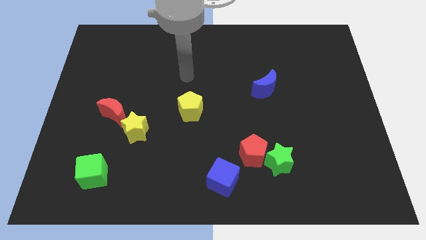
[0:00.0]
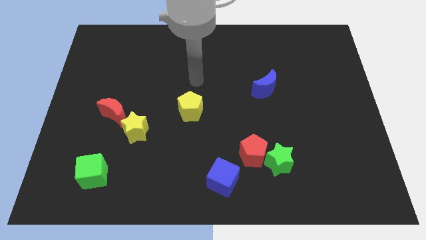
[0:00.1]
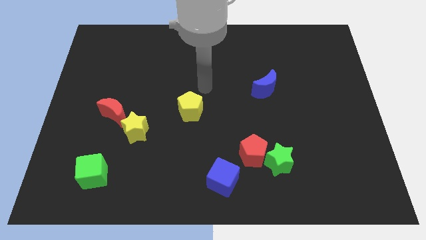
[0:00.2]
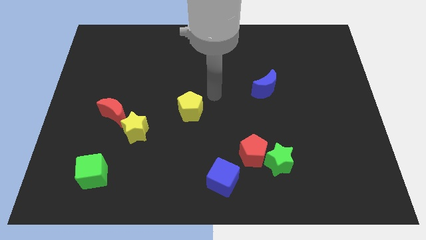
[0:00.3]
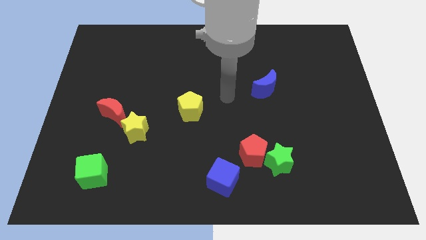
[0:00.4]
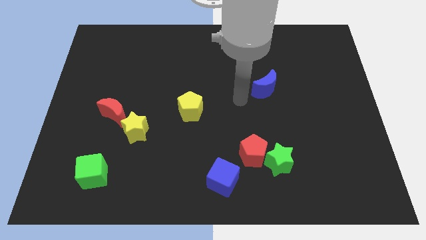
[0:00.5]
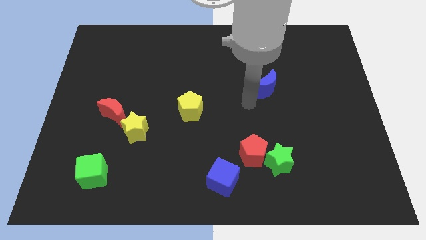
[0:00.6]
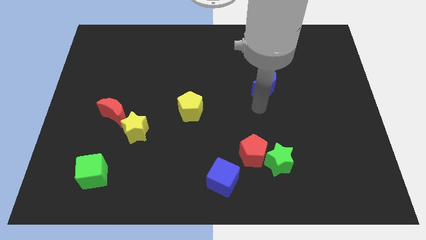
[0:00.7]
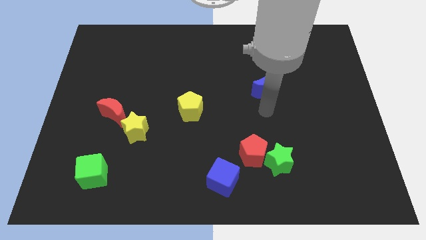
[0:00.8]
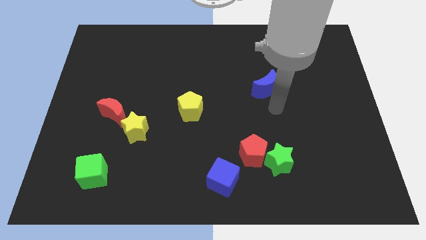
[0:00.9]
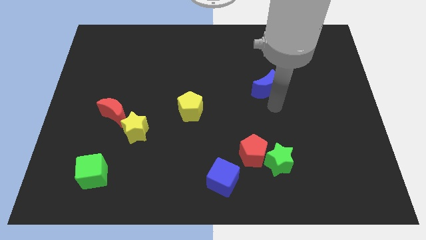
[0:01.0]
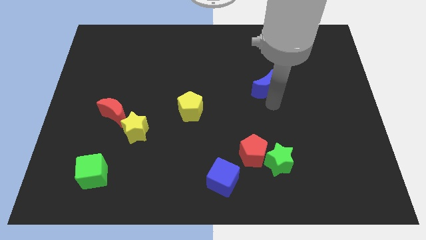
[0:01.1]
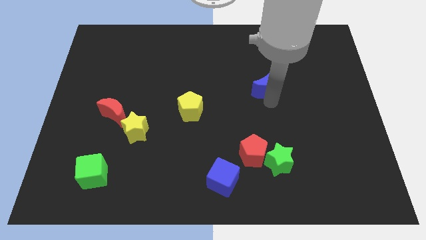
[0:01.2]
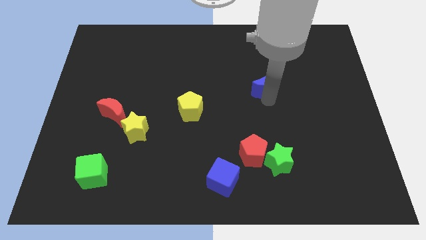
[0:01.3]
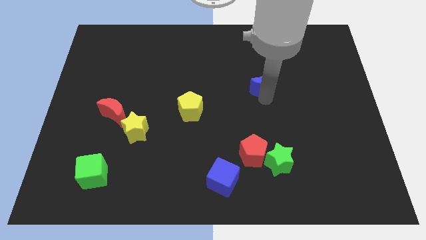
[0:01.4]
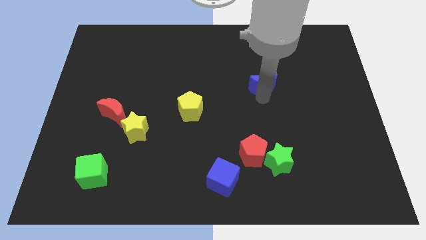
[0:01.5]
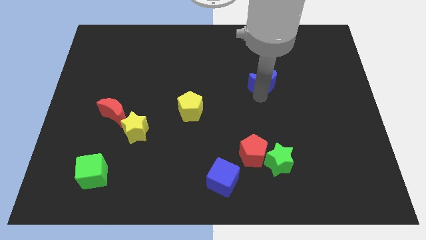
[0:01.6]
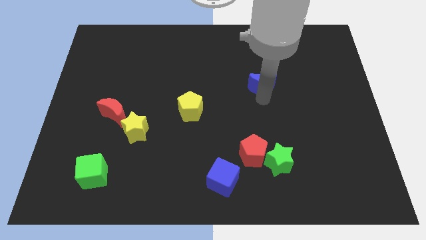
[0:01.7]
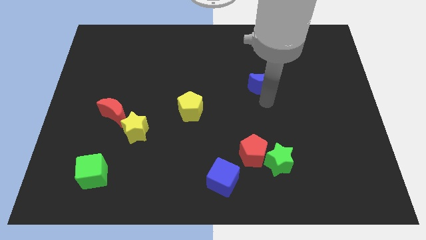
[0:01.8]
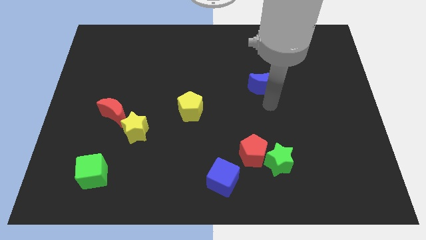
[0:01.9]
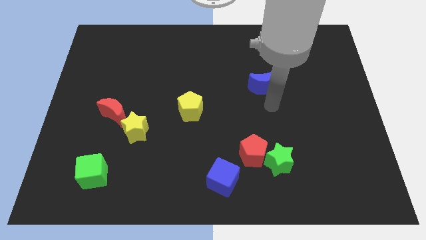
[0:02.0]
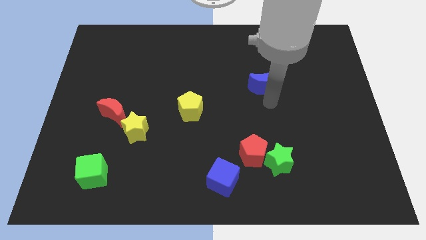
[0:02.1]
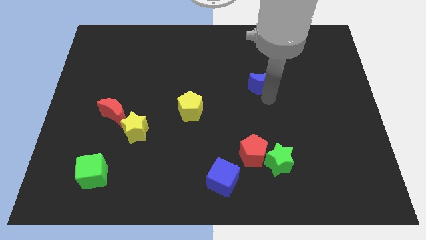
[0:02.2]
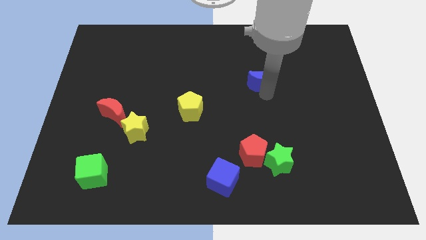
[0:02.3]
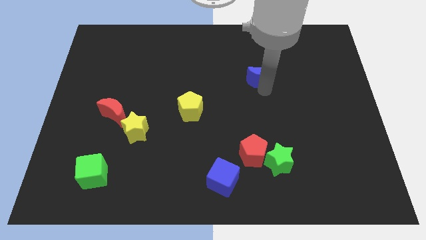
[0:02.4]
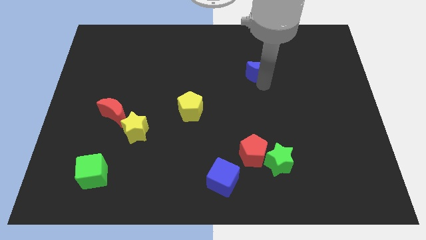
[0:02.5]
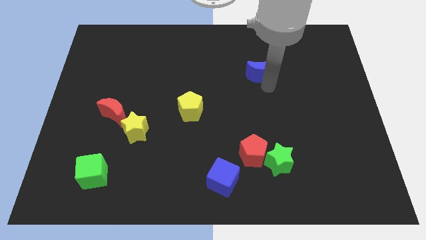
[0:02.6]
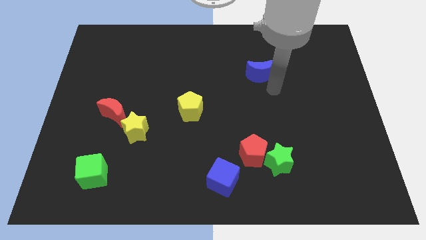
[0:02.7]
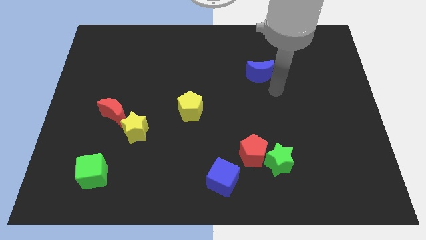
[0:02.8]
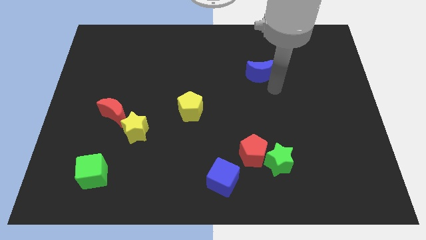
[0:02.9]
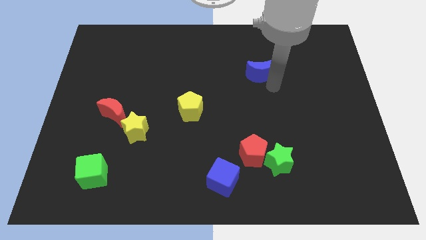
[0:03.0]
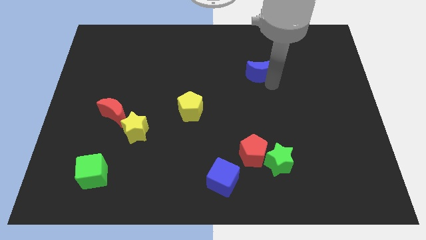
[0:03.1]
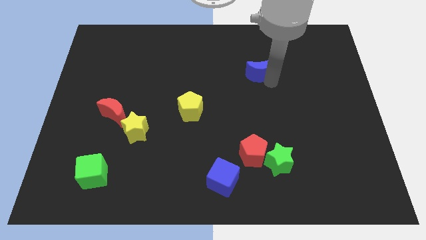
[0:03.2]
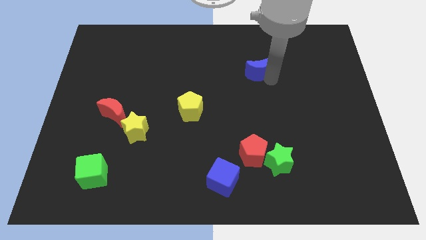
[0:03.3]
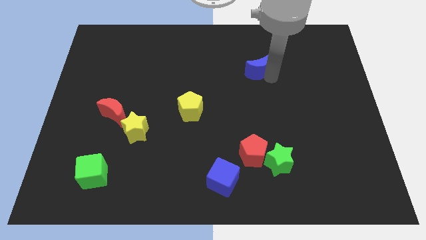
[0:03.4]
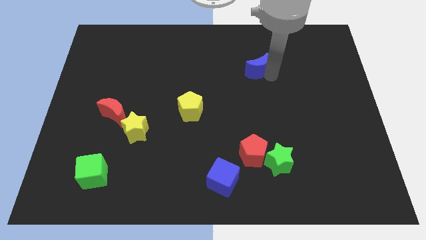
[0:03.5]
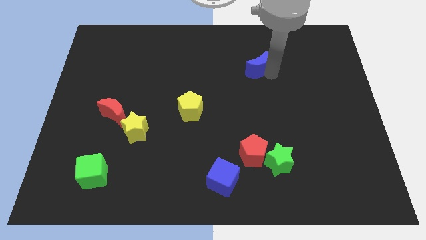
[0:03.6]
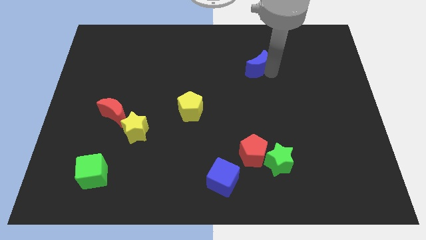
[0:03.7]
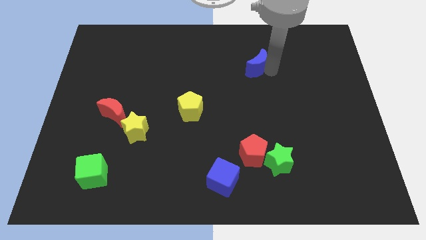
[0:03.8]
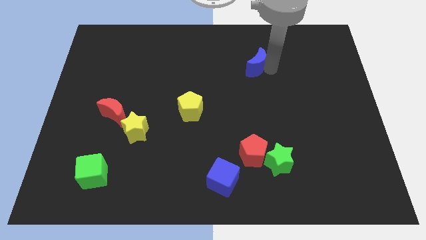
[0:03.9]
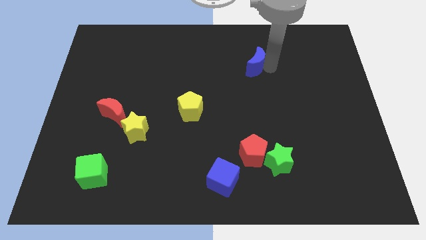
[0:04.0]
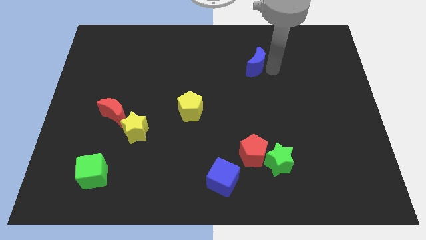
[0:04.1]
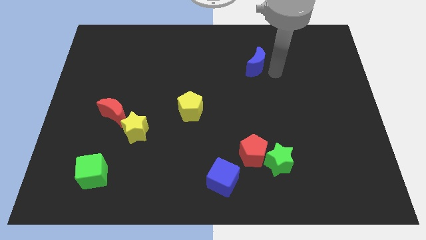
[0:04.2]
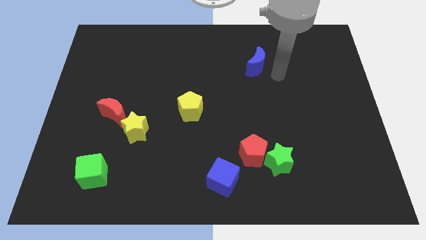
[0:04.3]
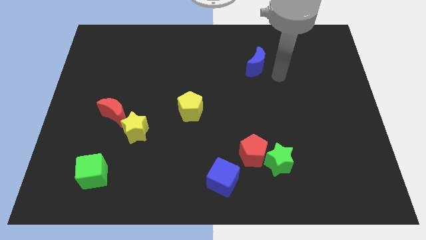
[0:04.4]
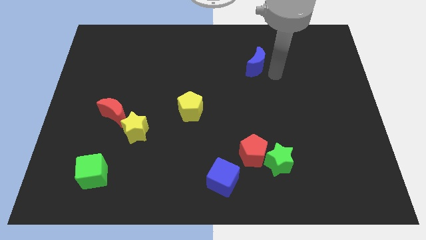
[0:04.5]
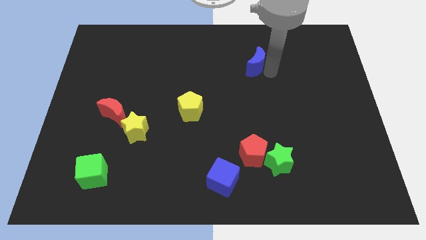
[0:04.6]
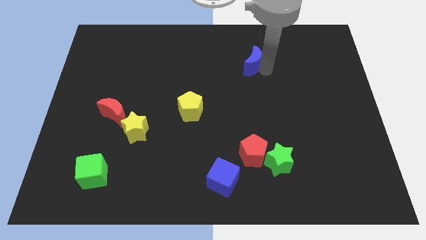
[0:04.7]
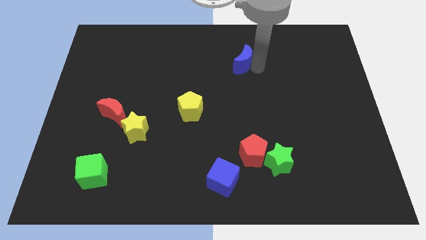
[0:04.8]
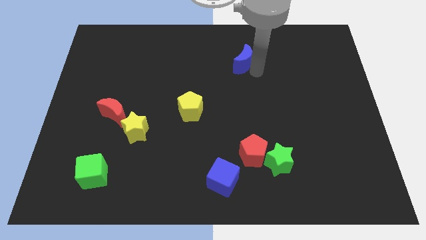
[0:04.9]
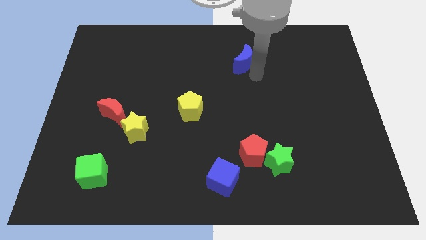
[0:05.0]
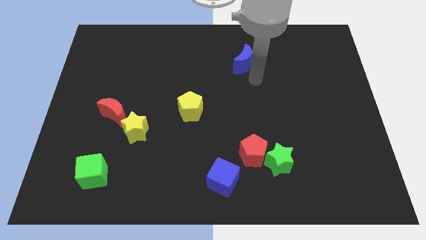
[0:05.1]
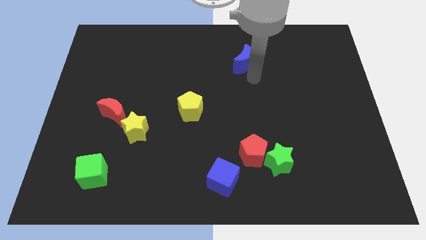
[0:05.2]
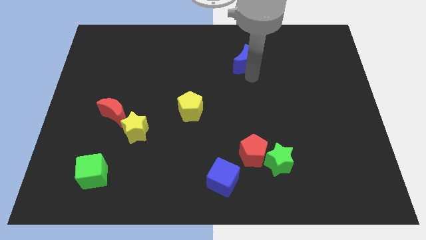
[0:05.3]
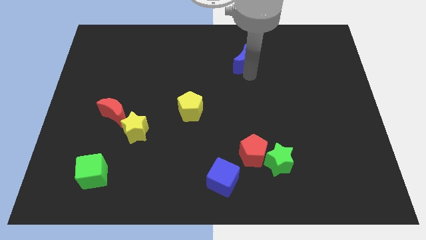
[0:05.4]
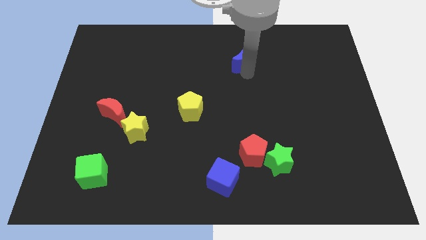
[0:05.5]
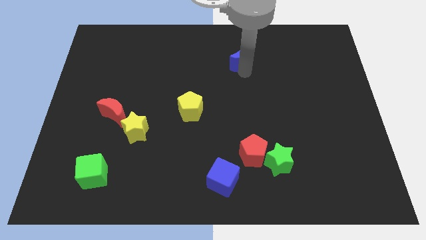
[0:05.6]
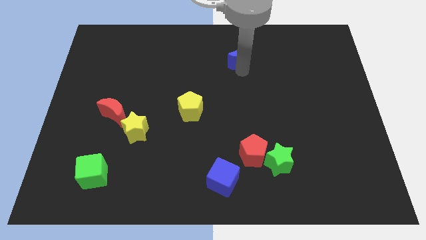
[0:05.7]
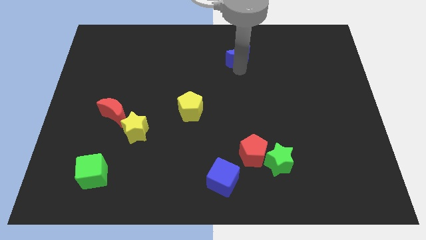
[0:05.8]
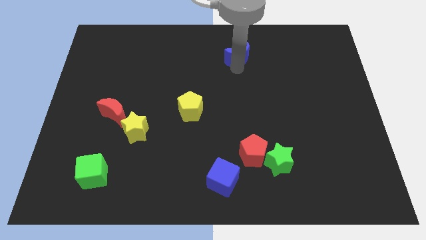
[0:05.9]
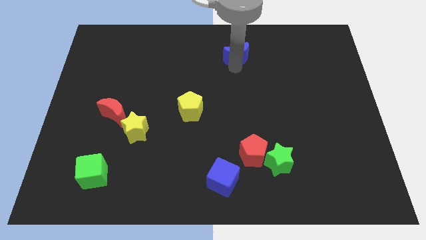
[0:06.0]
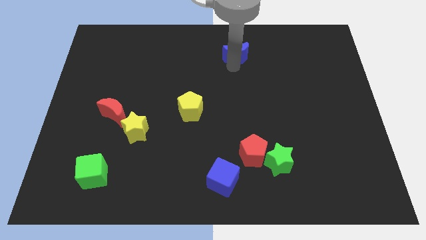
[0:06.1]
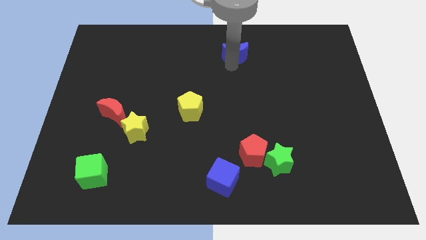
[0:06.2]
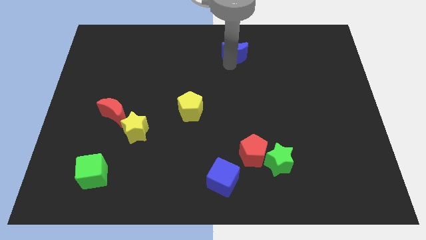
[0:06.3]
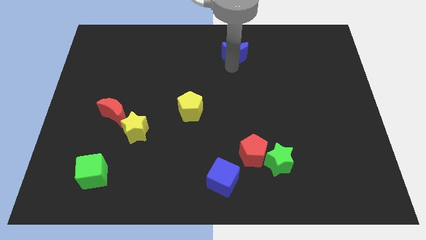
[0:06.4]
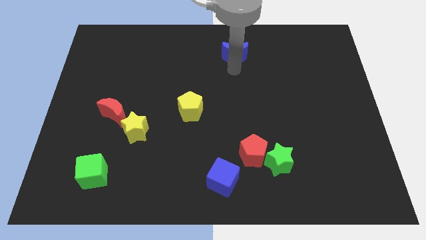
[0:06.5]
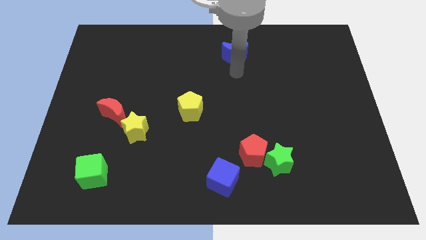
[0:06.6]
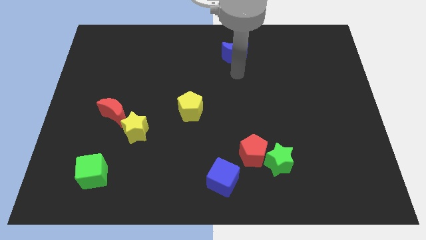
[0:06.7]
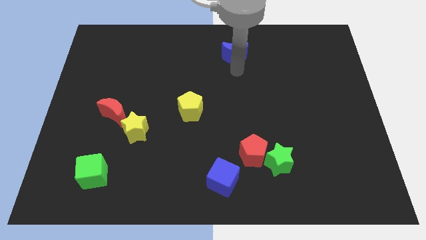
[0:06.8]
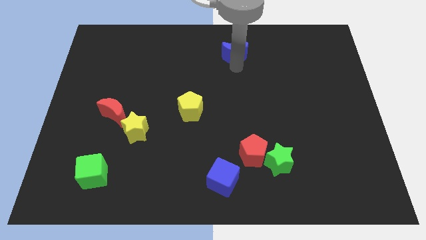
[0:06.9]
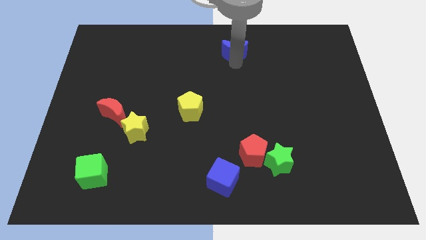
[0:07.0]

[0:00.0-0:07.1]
move the blue moon to the towards your base
